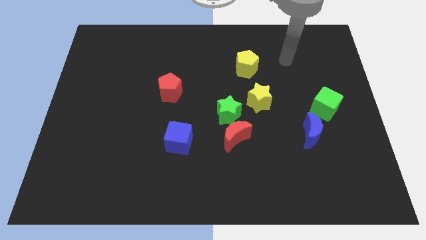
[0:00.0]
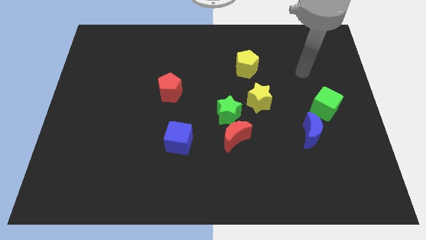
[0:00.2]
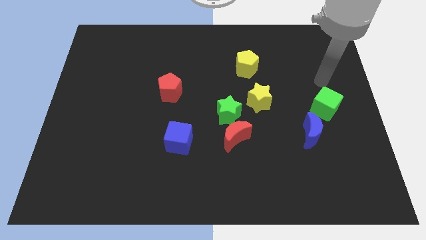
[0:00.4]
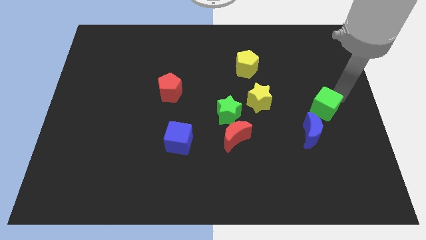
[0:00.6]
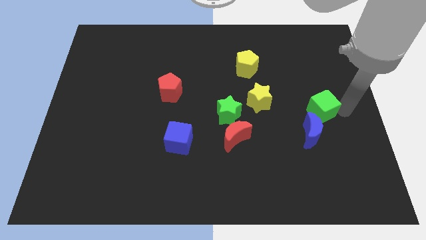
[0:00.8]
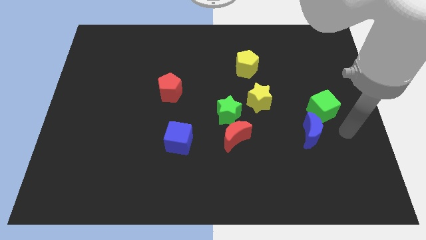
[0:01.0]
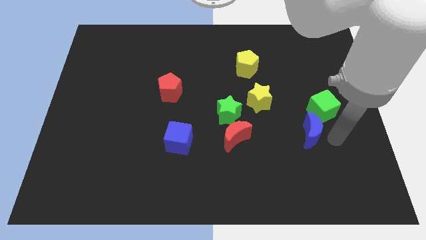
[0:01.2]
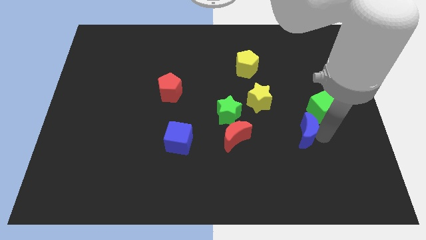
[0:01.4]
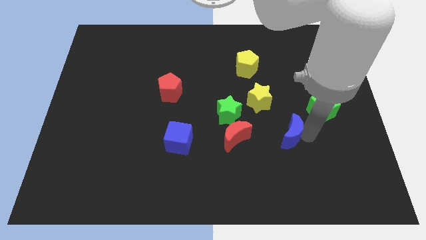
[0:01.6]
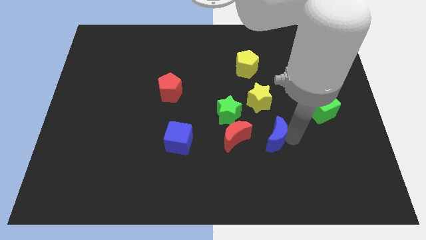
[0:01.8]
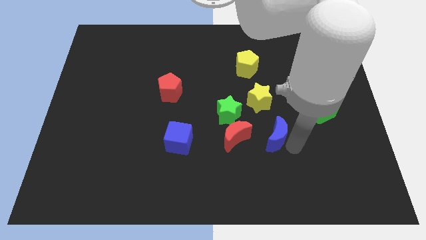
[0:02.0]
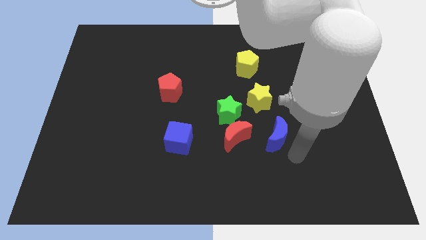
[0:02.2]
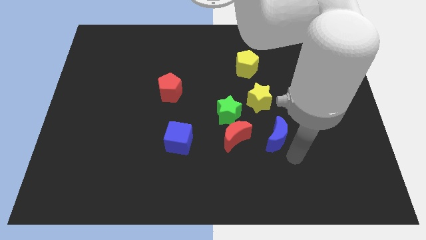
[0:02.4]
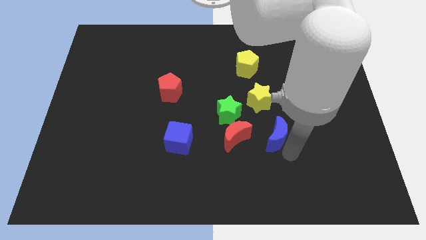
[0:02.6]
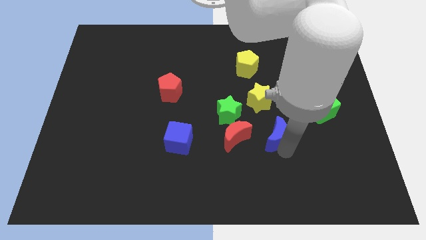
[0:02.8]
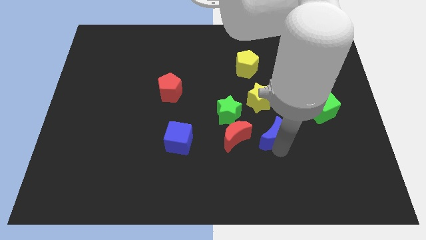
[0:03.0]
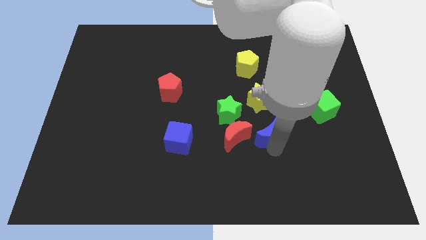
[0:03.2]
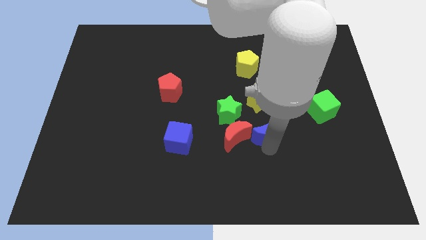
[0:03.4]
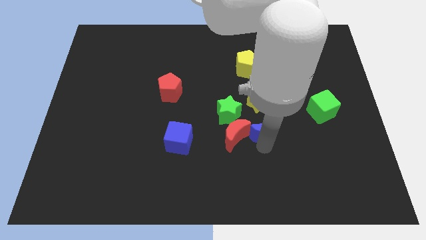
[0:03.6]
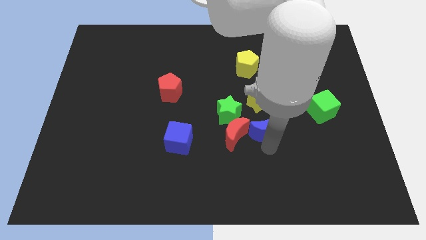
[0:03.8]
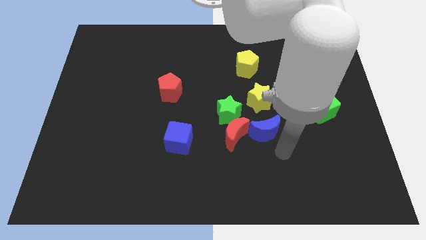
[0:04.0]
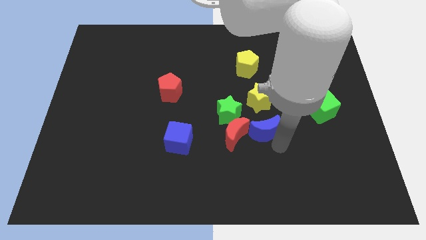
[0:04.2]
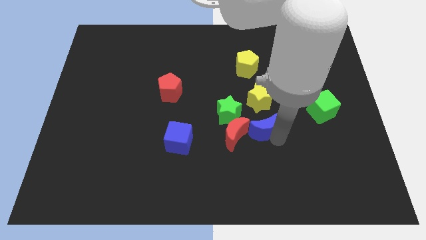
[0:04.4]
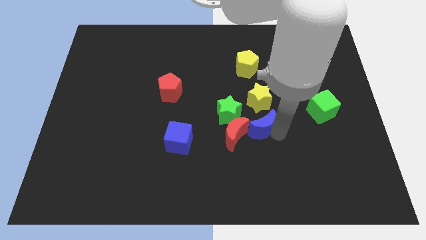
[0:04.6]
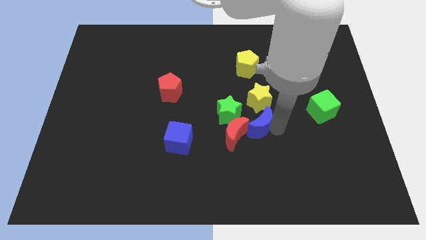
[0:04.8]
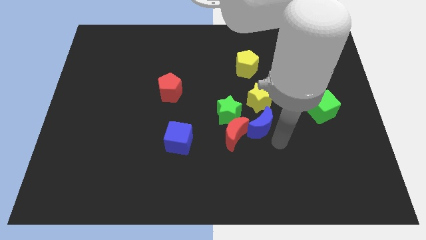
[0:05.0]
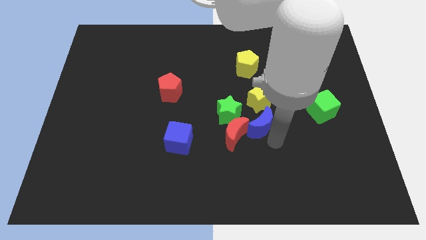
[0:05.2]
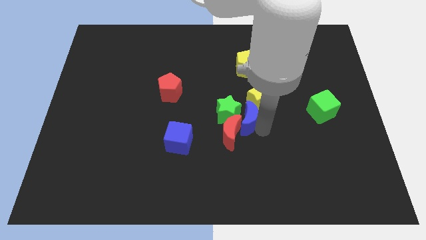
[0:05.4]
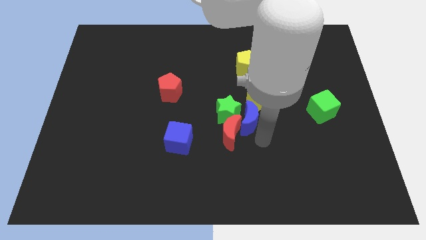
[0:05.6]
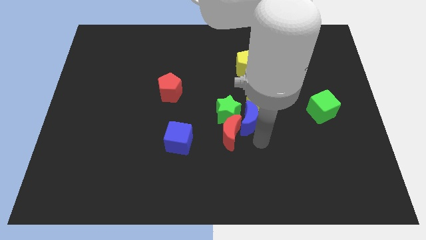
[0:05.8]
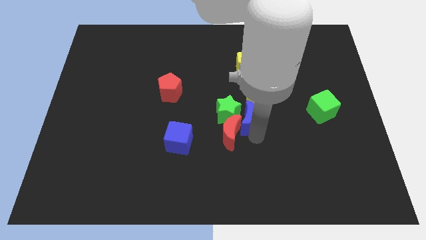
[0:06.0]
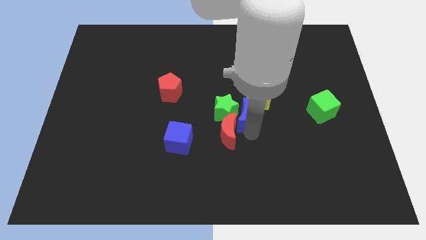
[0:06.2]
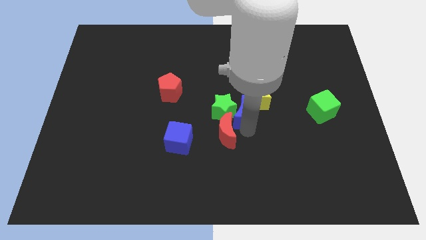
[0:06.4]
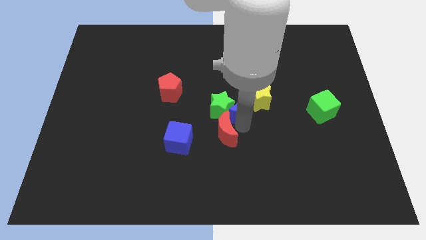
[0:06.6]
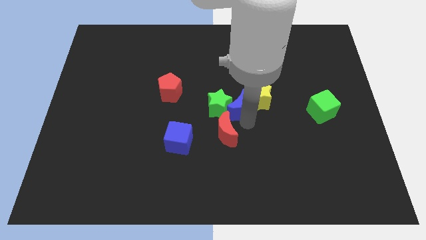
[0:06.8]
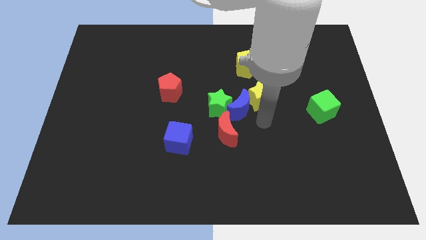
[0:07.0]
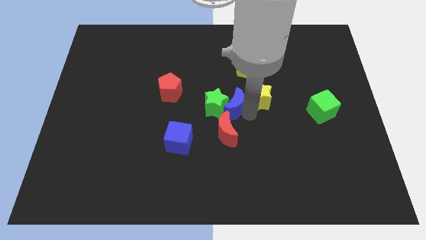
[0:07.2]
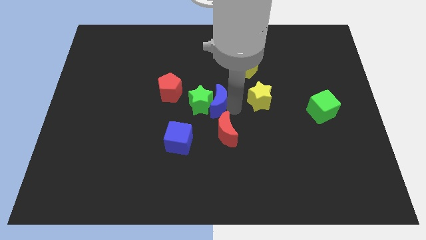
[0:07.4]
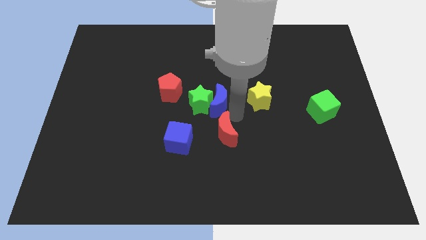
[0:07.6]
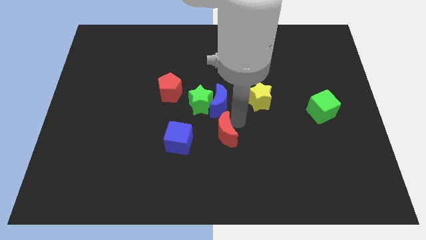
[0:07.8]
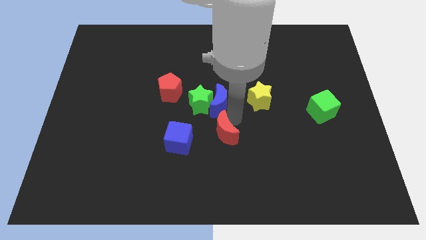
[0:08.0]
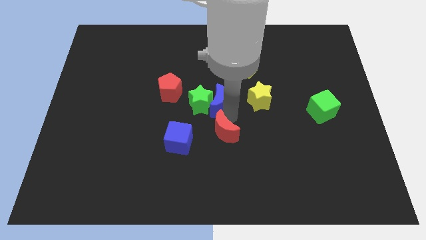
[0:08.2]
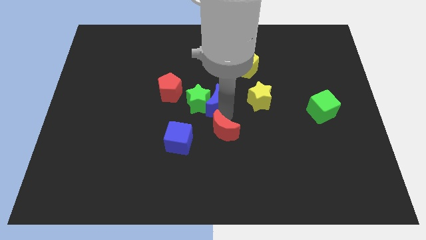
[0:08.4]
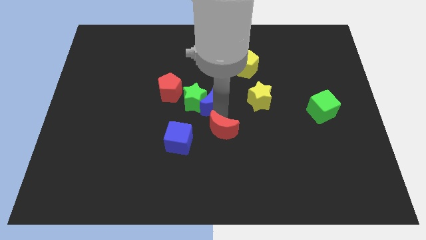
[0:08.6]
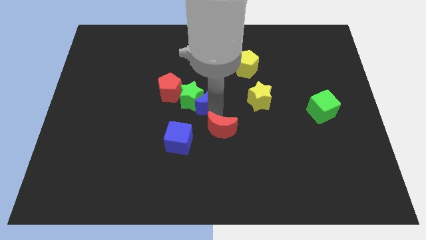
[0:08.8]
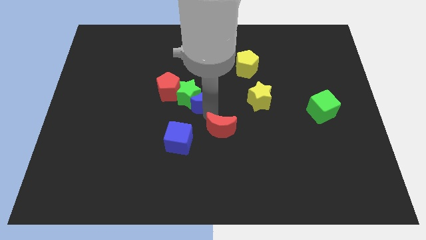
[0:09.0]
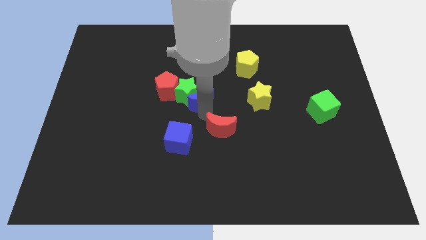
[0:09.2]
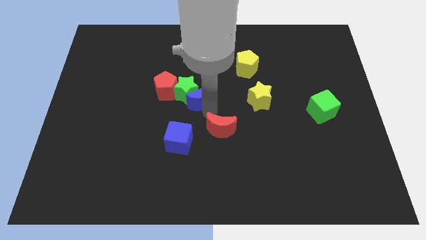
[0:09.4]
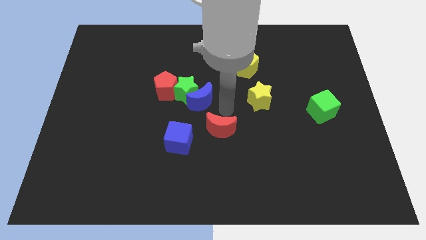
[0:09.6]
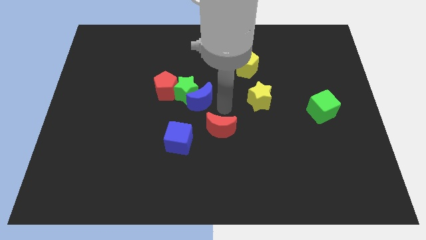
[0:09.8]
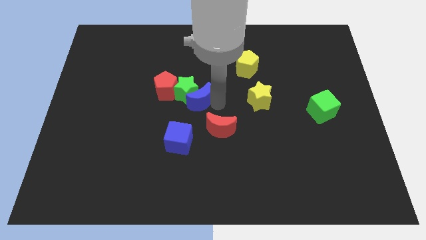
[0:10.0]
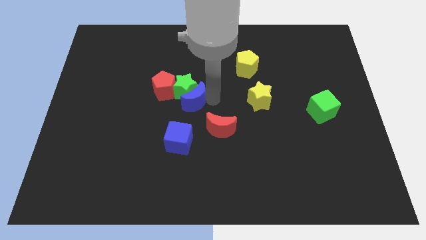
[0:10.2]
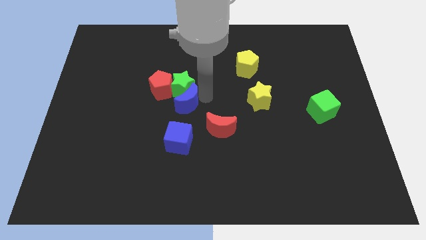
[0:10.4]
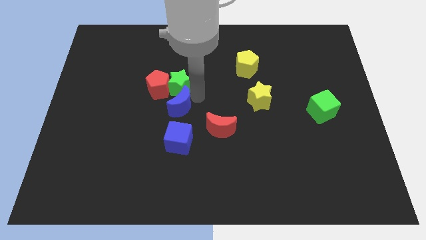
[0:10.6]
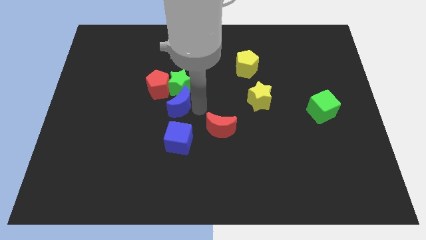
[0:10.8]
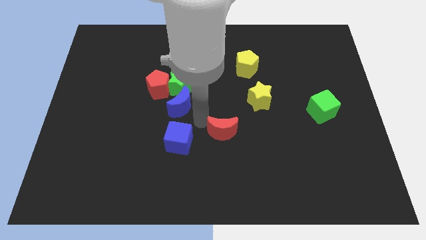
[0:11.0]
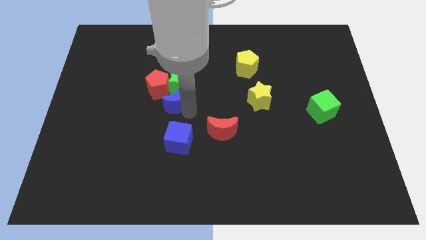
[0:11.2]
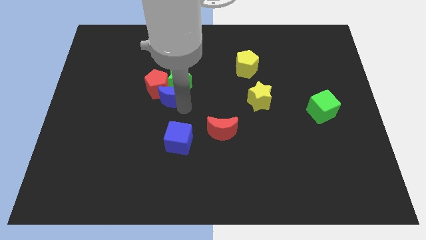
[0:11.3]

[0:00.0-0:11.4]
move the blue moon to the red pentagon
